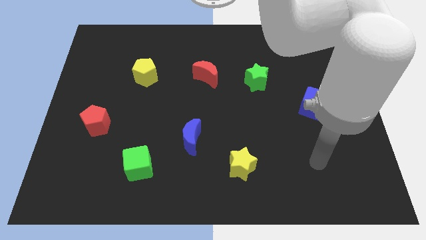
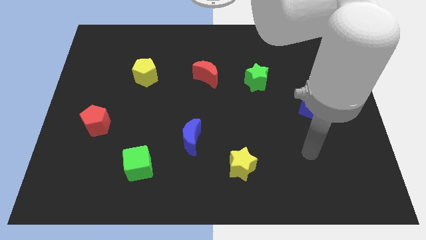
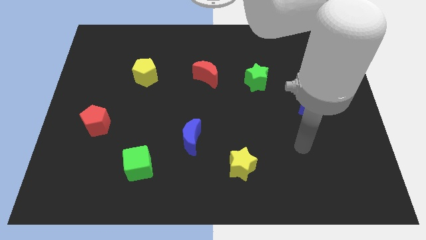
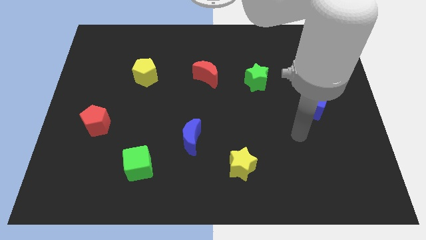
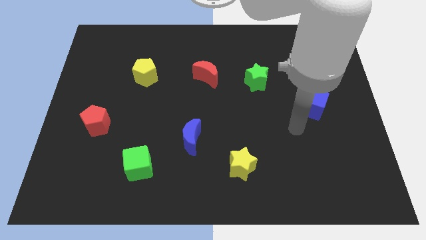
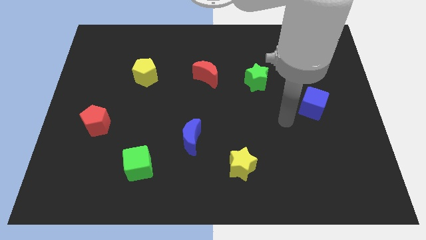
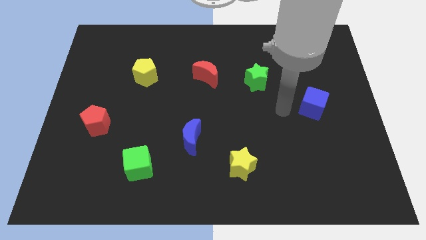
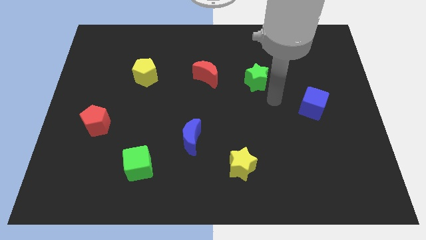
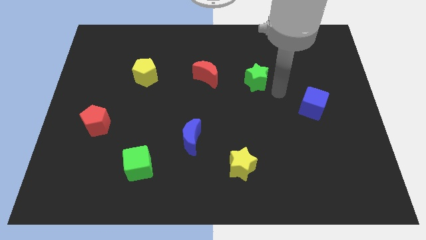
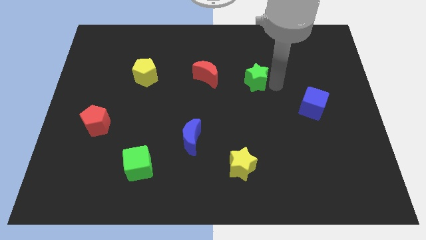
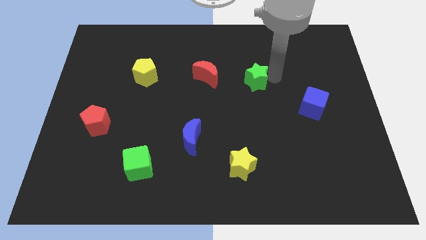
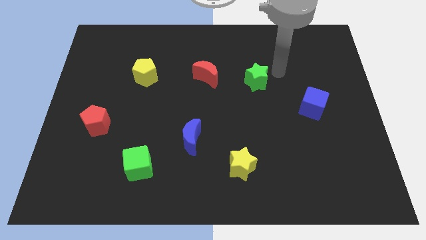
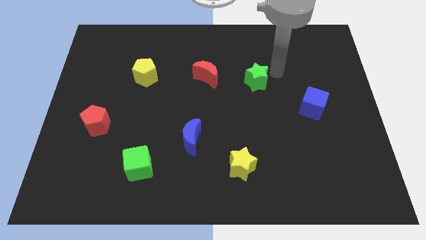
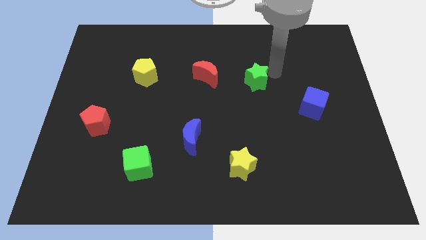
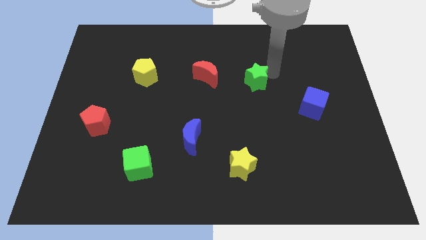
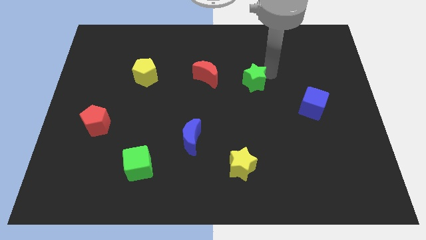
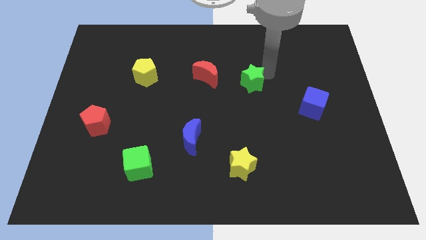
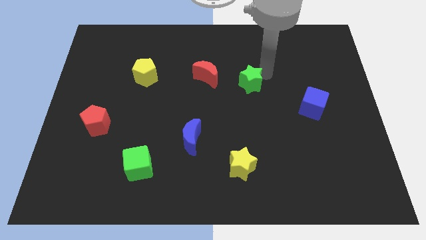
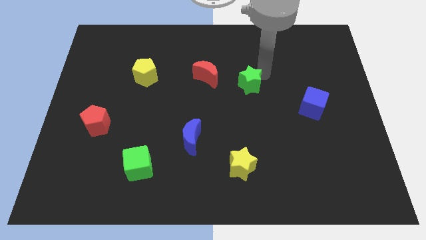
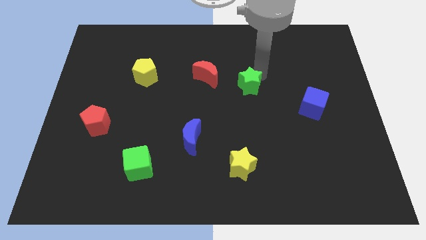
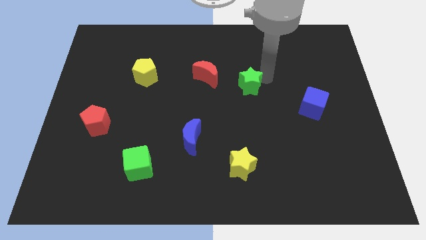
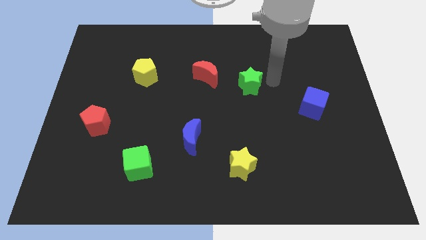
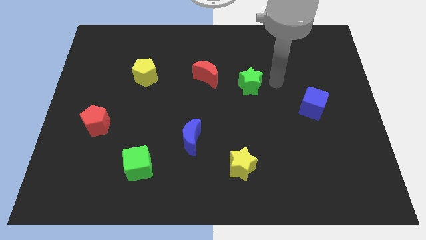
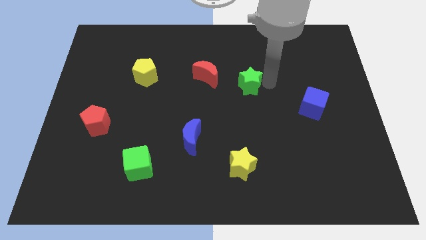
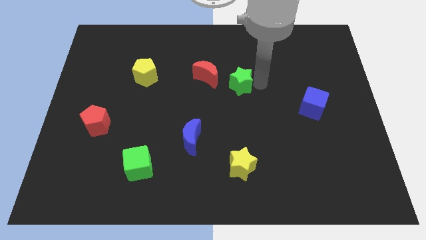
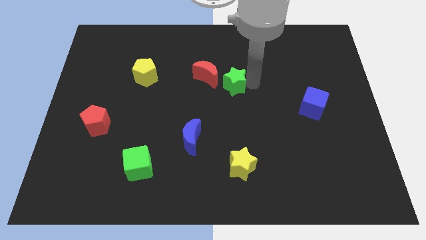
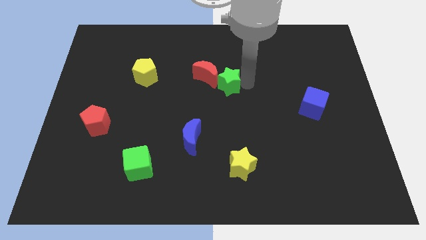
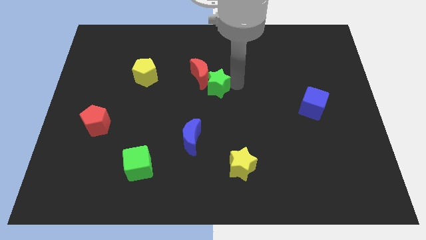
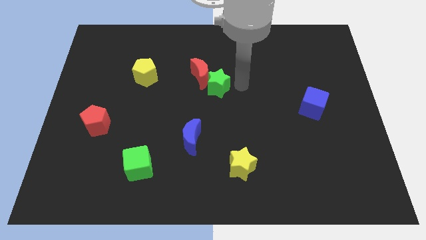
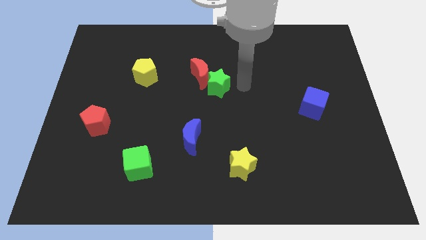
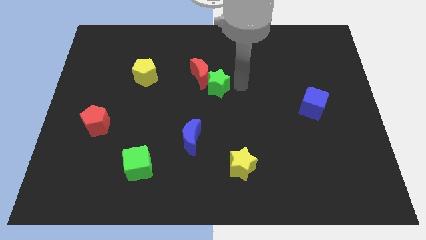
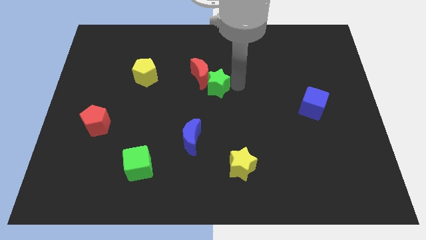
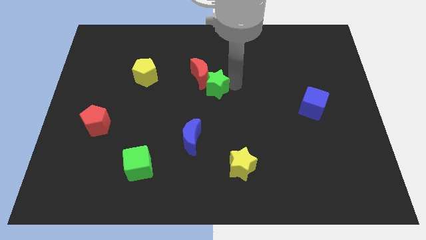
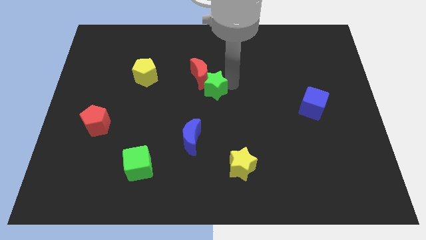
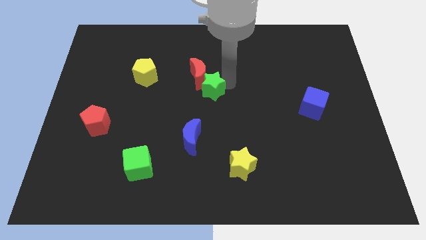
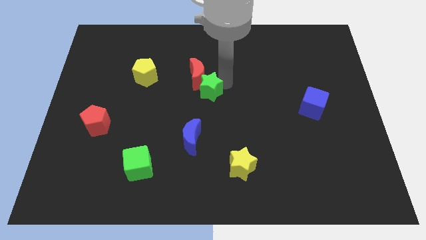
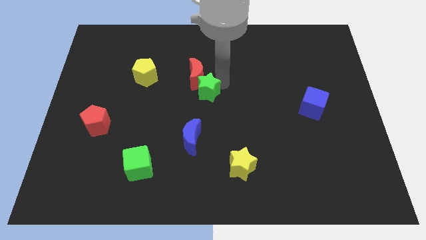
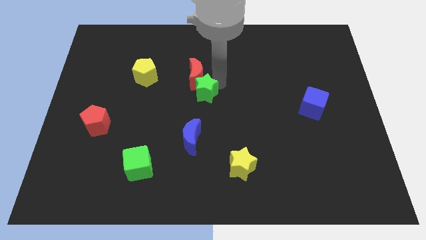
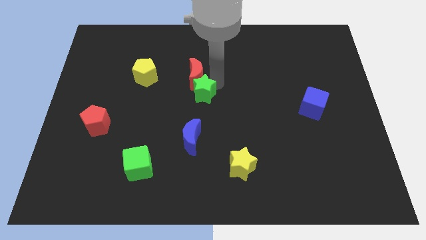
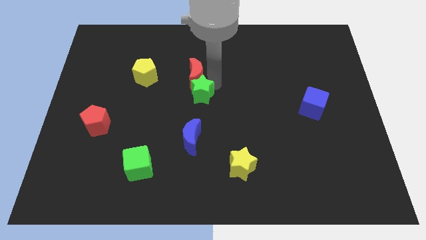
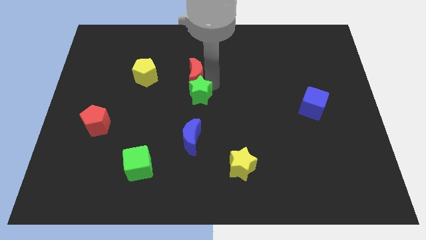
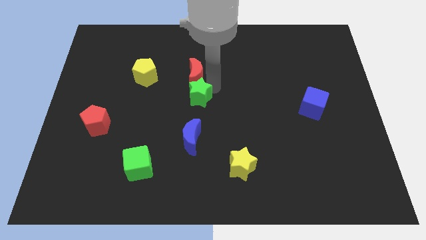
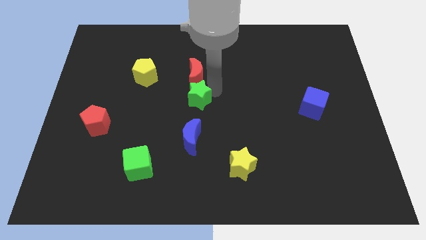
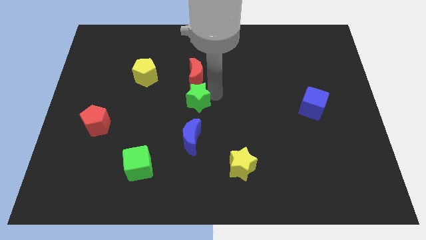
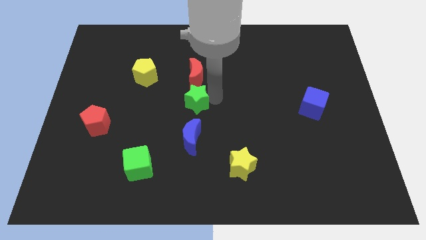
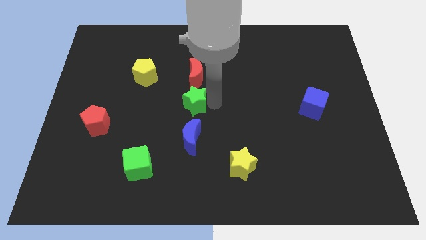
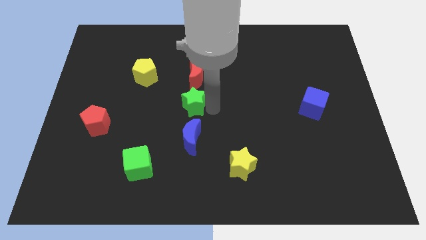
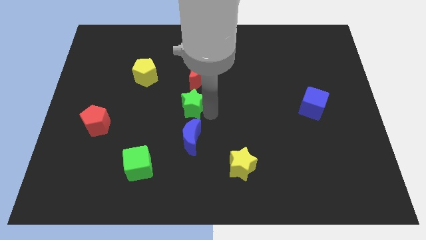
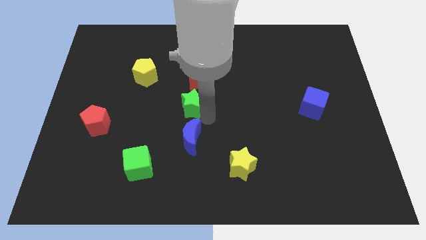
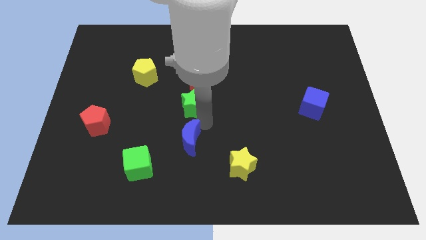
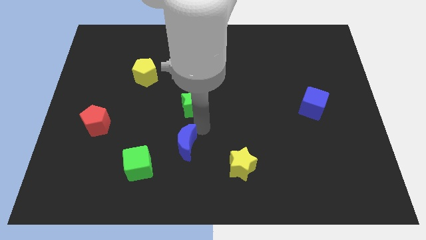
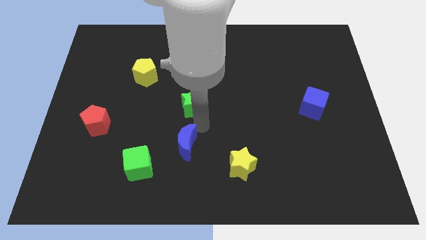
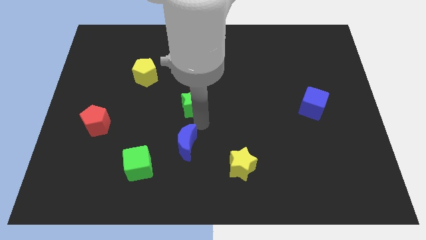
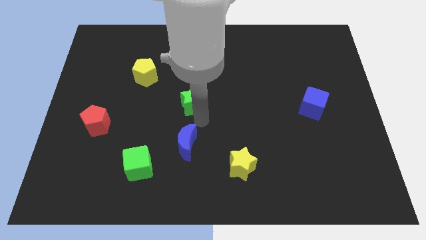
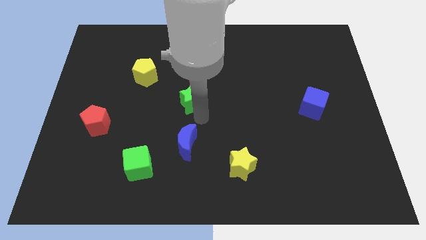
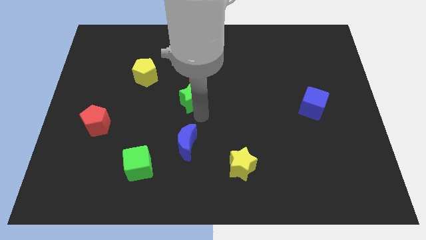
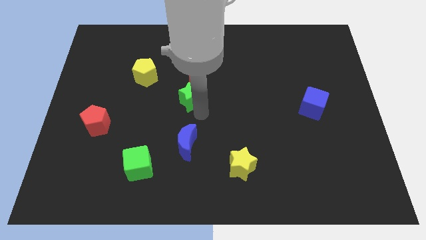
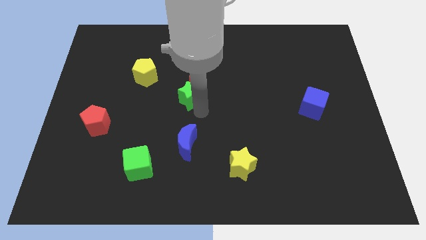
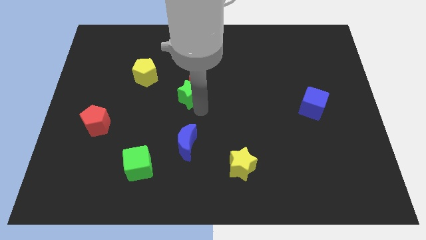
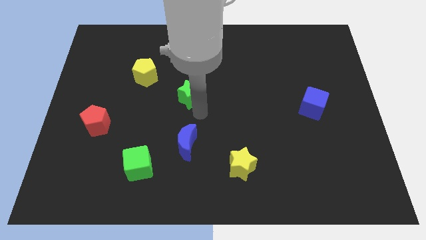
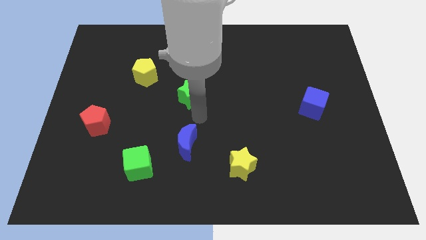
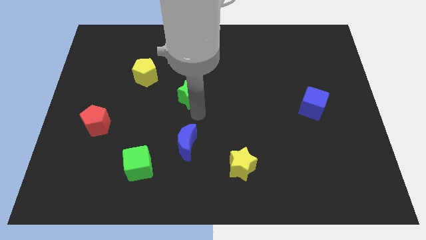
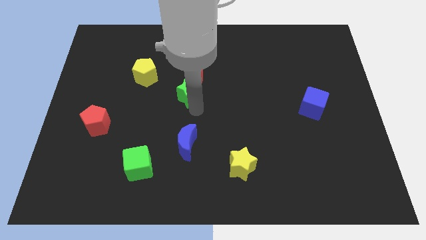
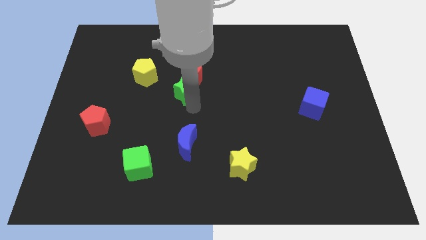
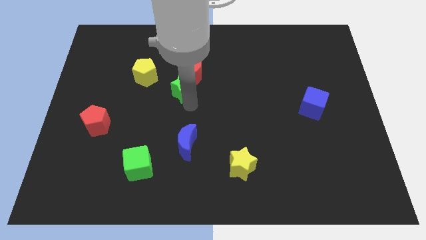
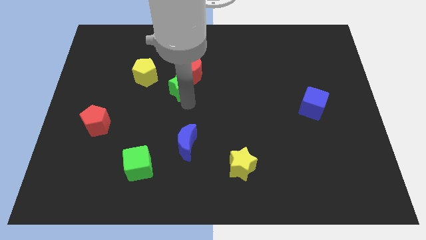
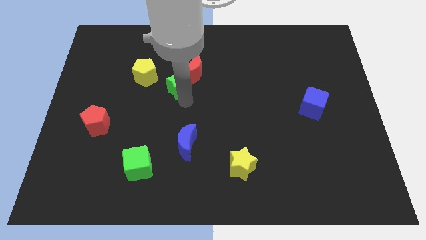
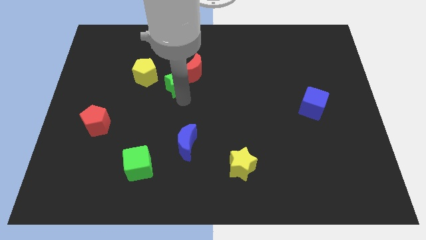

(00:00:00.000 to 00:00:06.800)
push the green star to the left

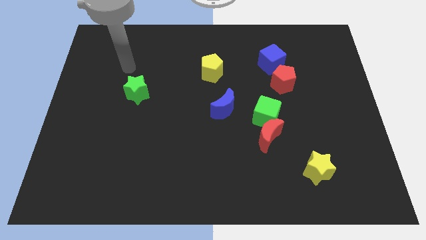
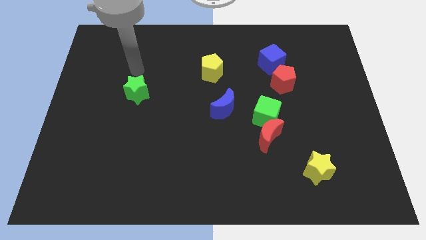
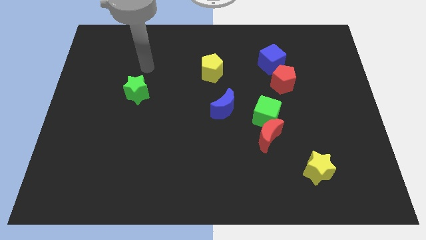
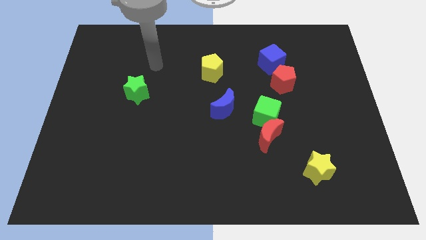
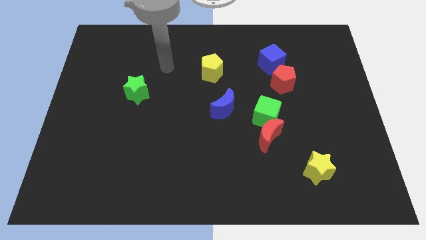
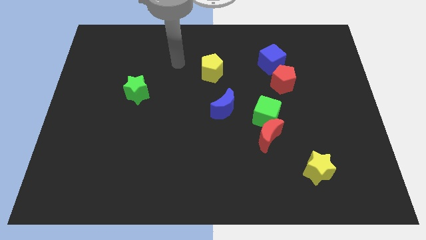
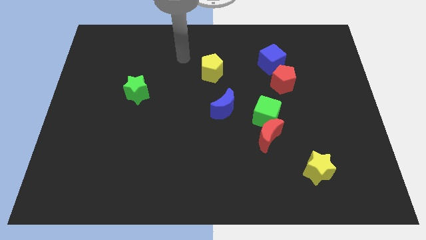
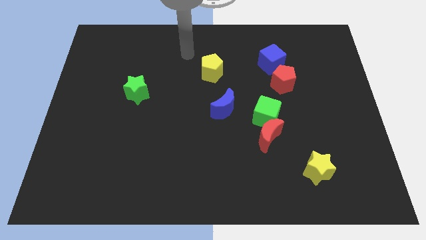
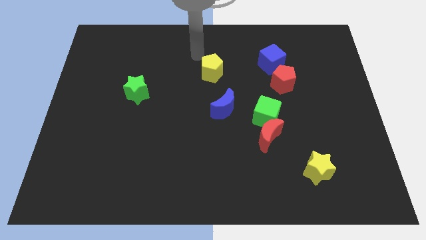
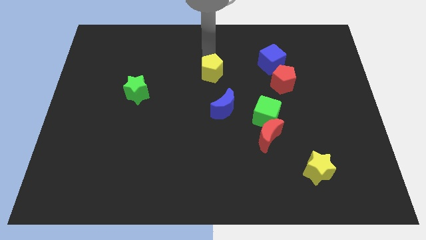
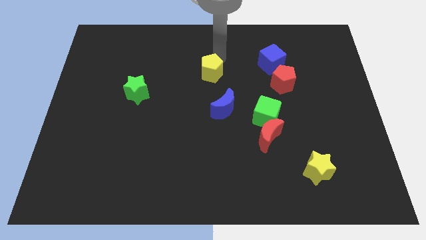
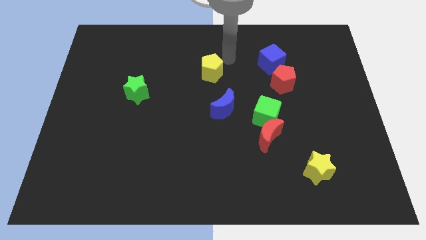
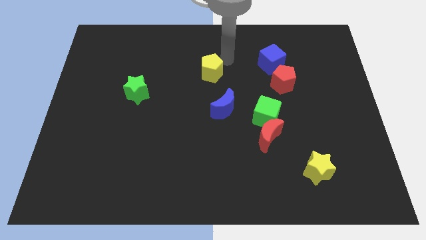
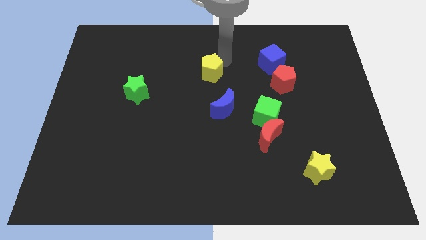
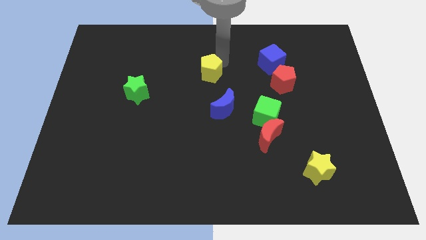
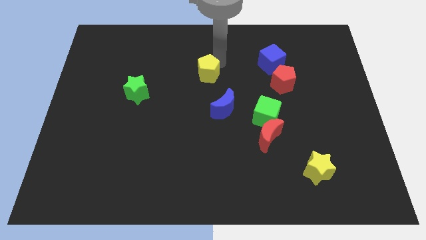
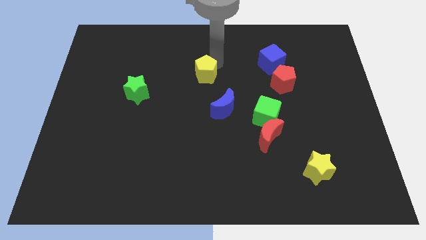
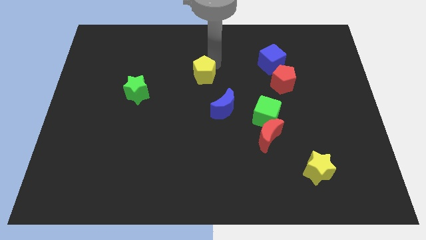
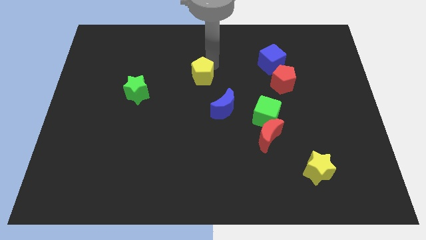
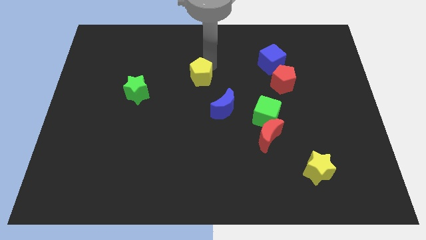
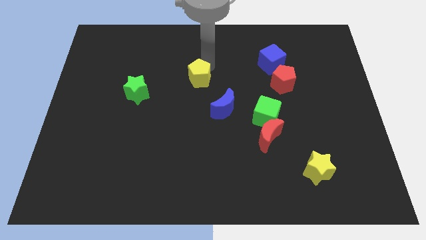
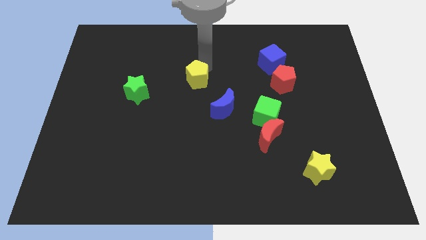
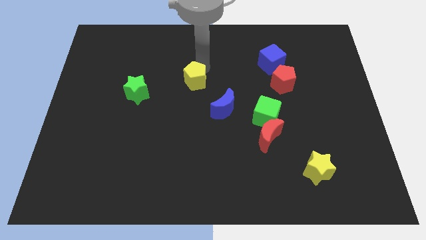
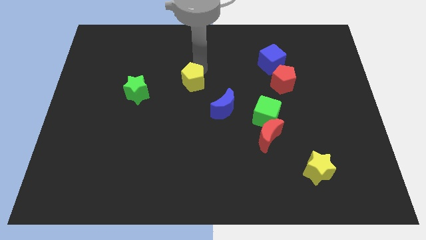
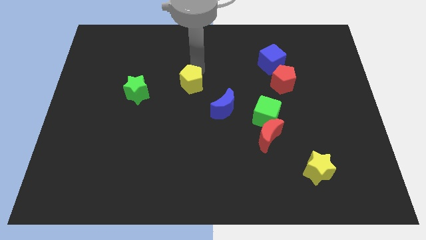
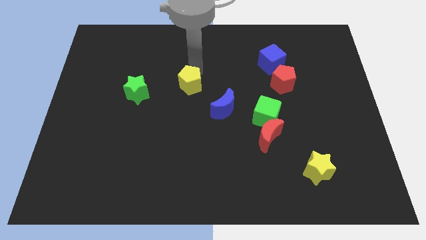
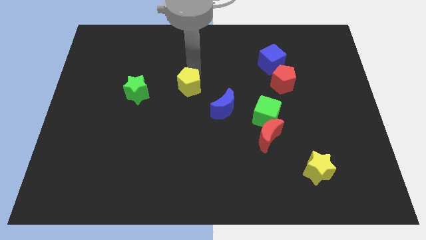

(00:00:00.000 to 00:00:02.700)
push the yellow pentagon downwards and then to the left somewhat
